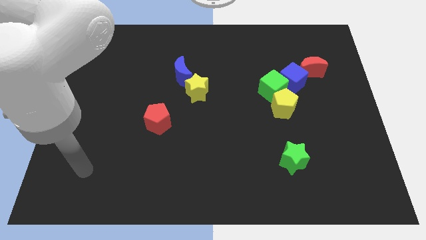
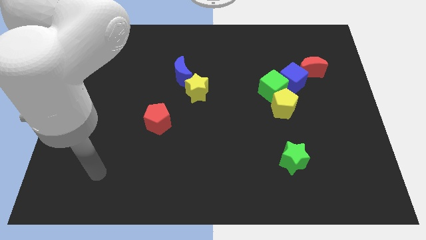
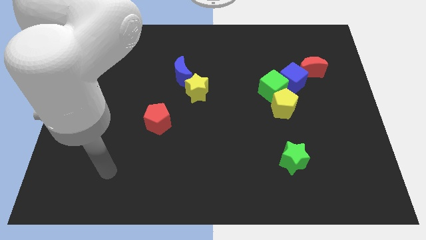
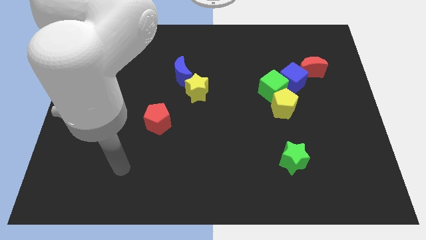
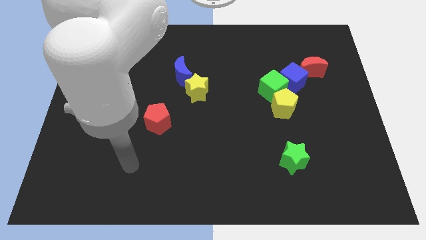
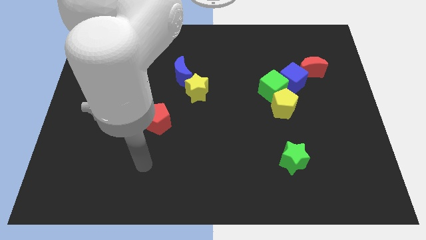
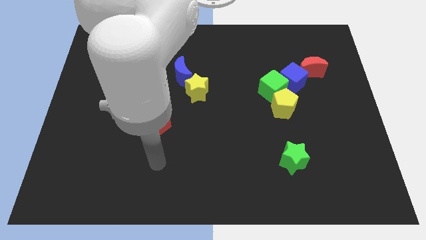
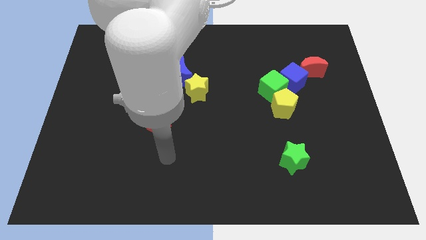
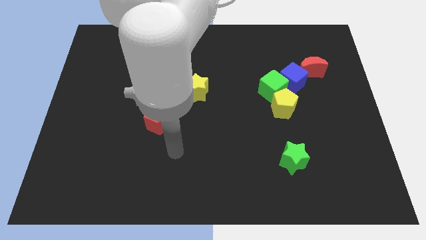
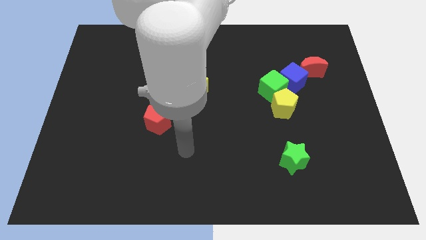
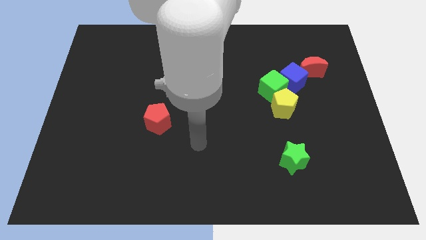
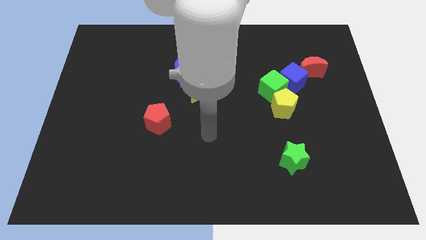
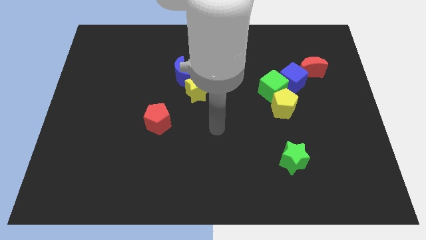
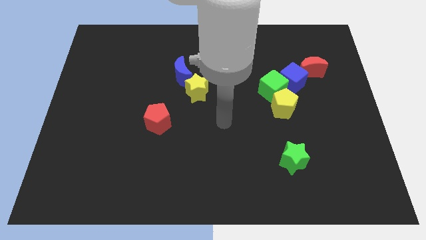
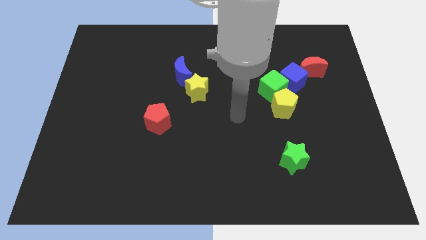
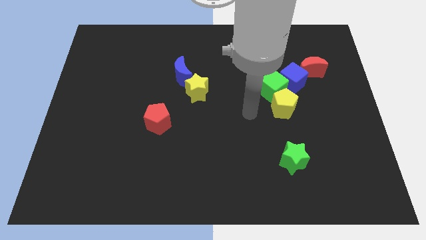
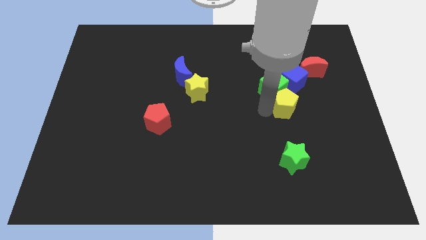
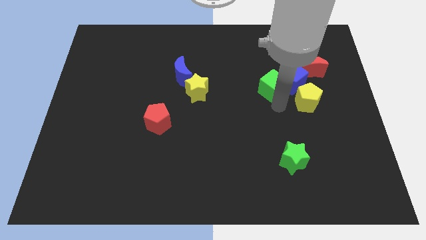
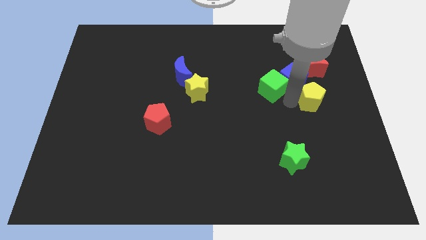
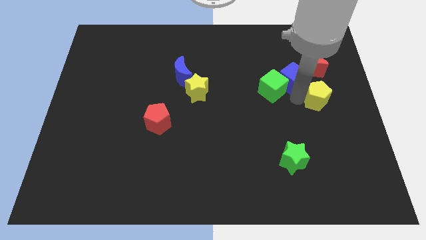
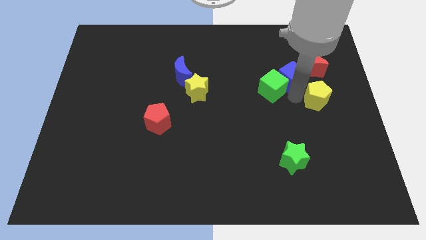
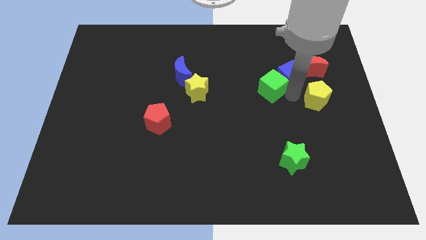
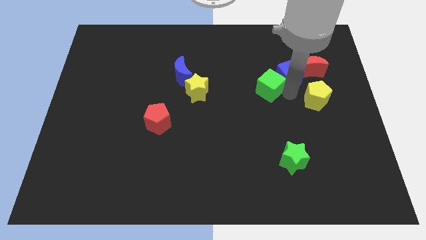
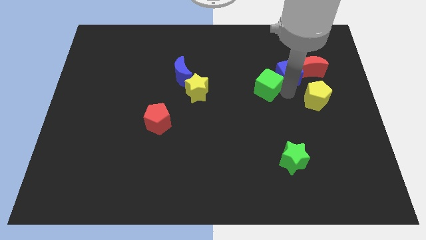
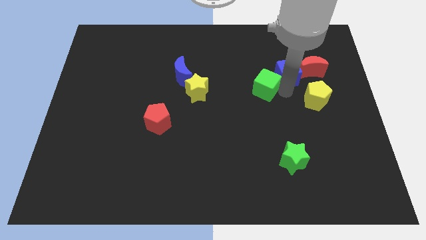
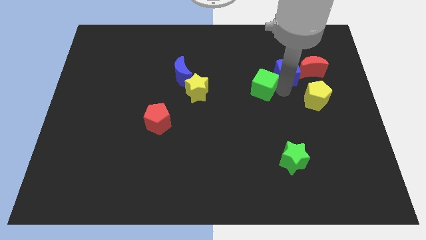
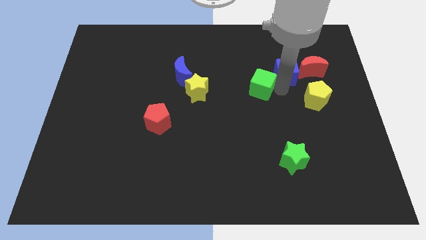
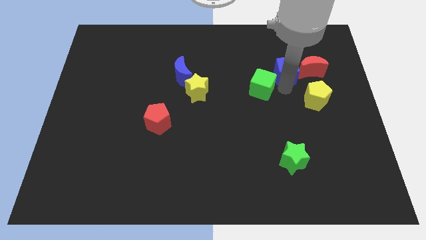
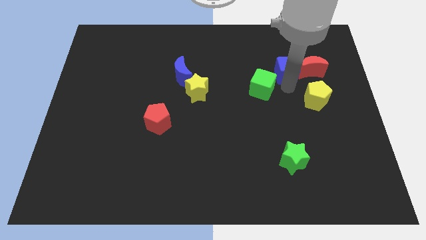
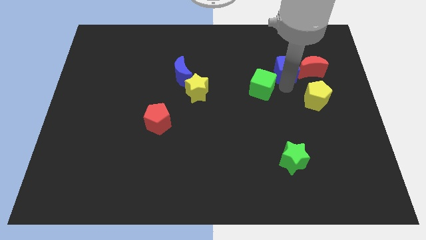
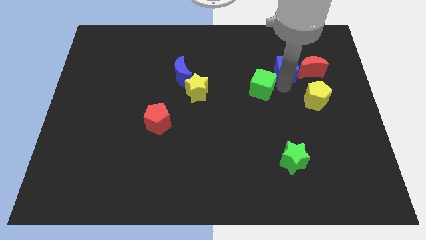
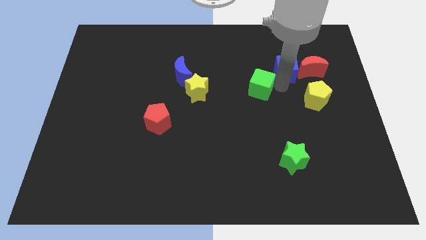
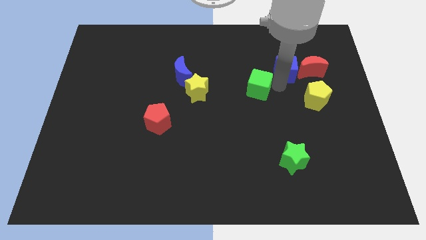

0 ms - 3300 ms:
pull the green cube apart from the yellow pentagon and blue cube

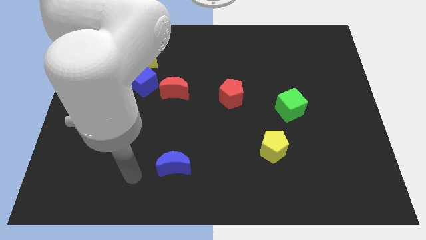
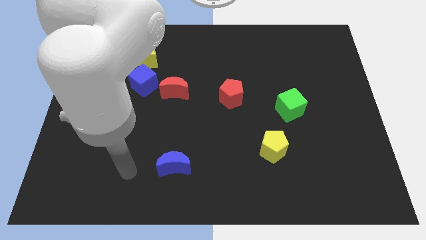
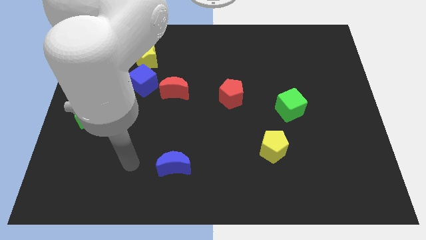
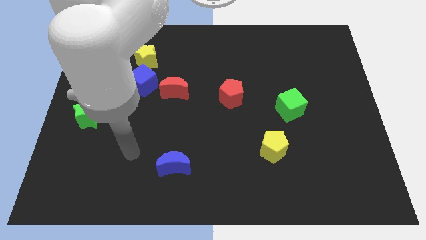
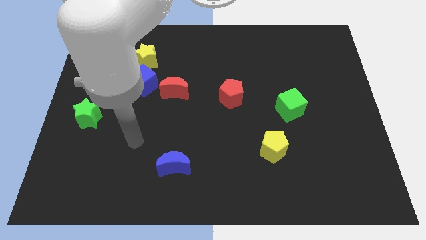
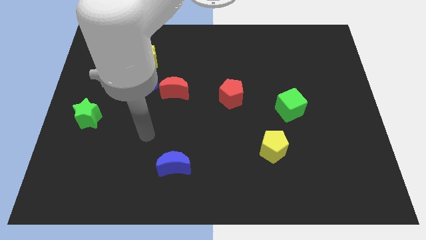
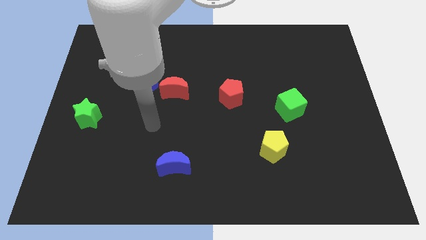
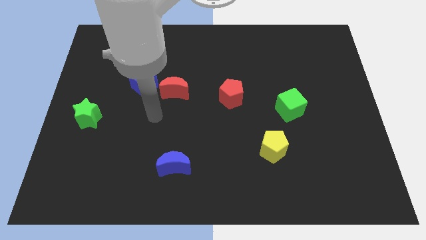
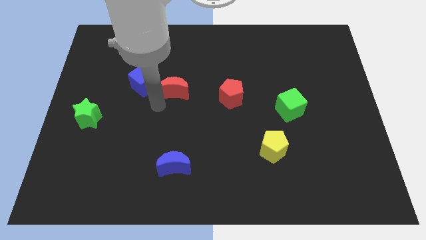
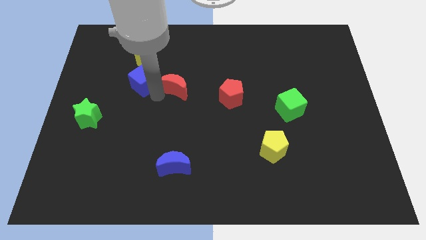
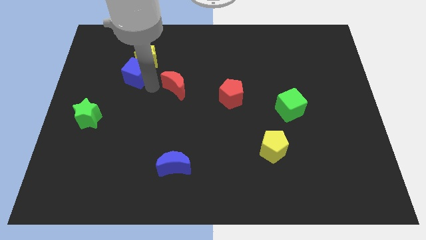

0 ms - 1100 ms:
move the red moon away from the blue cube

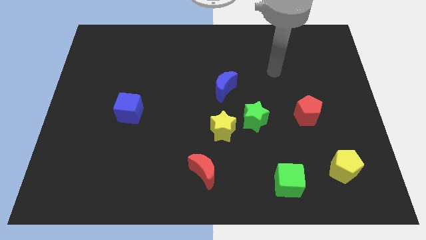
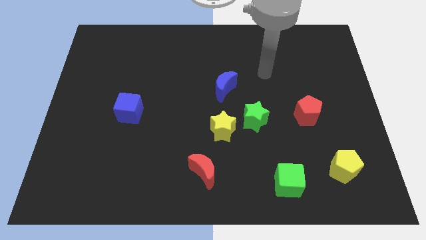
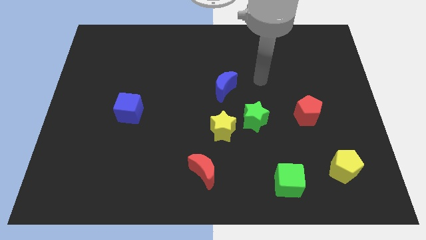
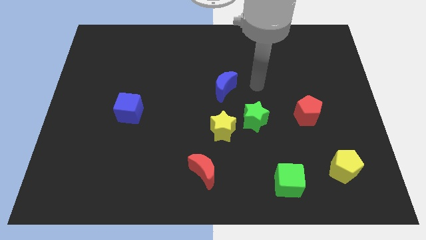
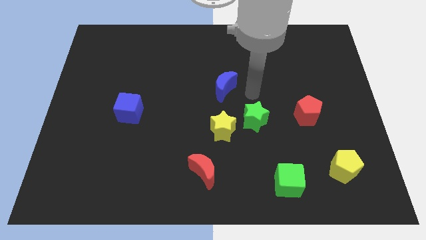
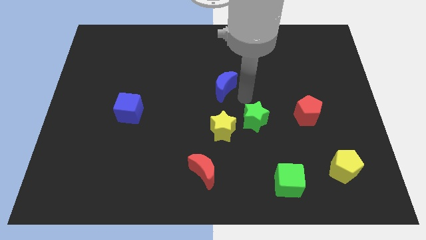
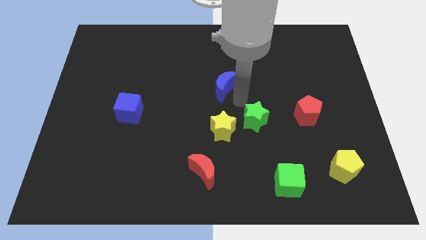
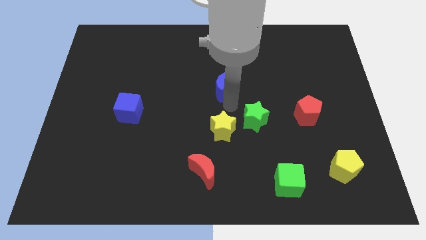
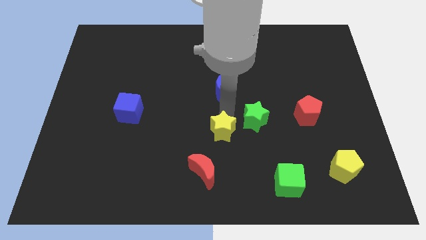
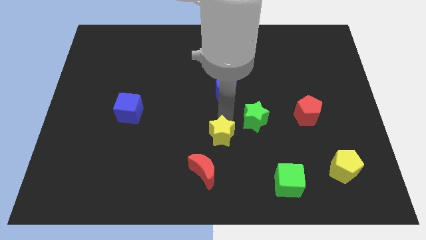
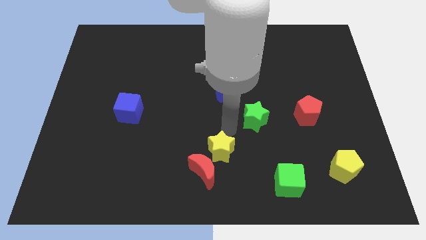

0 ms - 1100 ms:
separate the green star from the yellow star

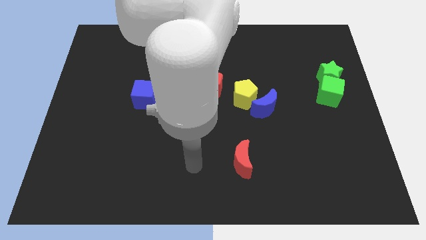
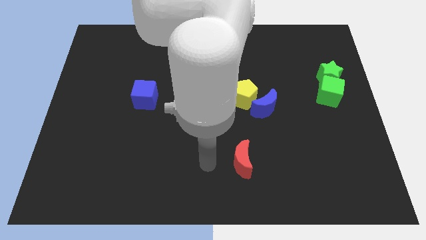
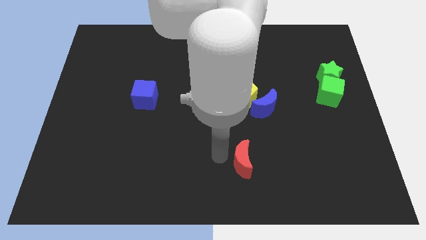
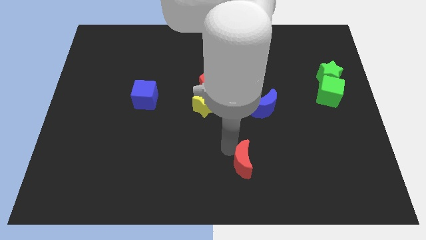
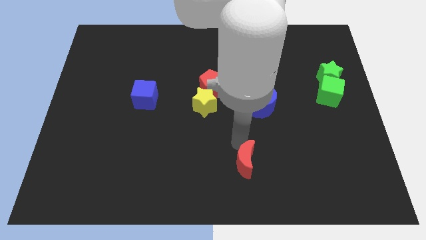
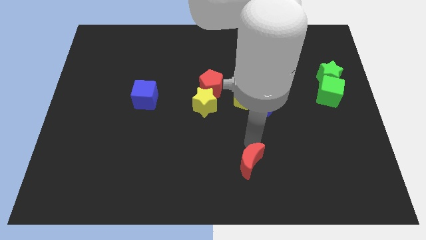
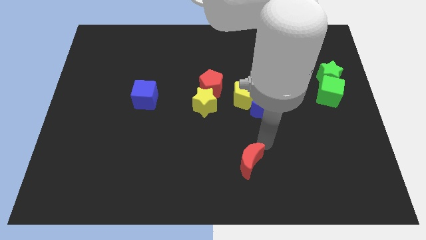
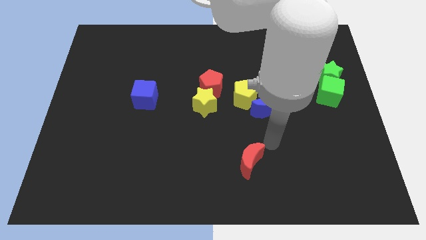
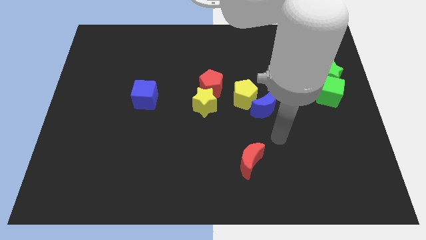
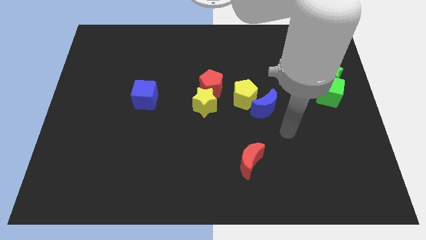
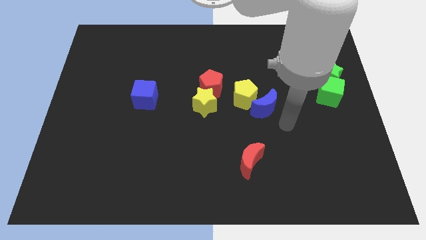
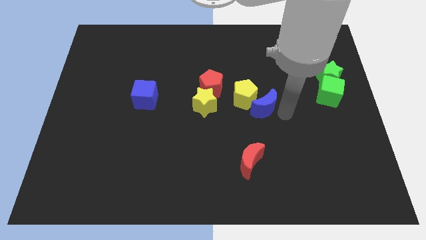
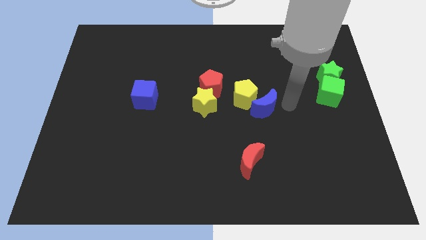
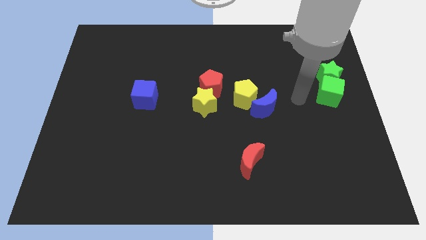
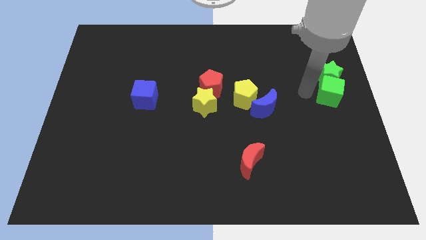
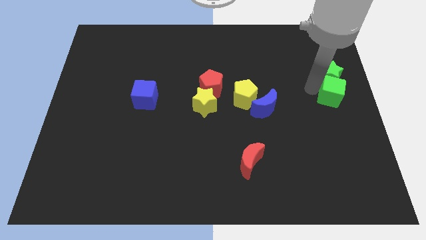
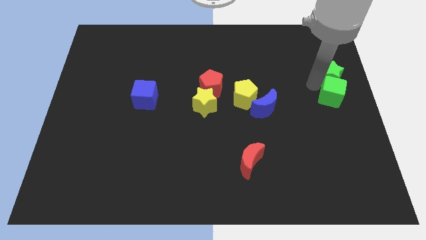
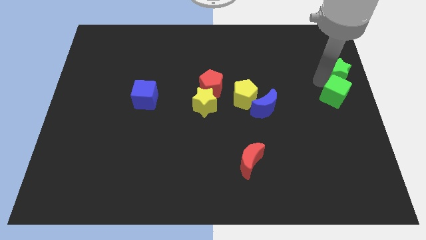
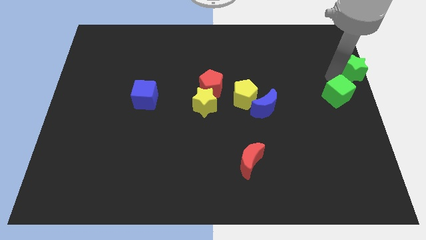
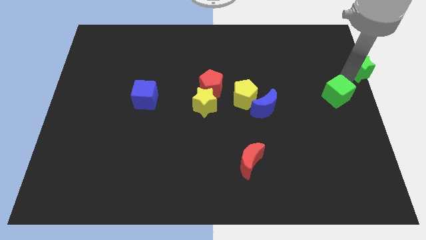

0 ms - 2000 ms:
pull the green cube apart from the green star

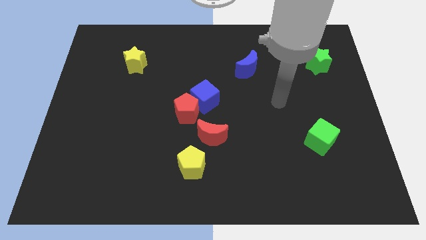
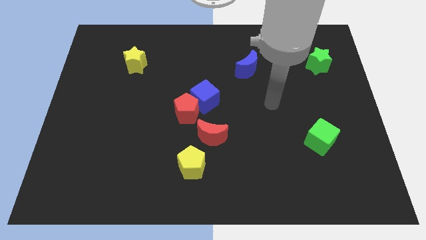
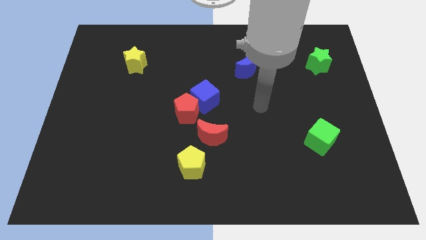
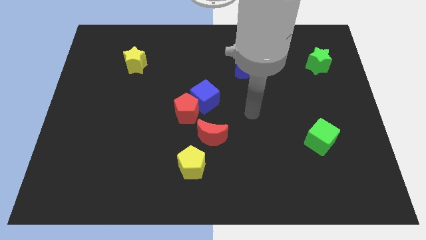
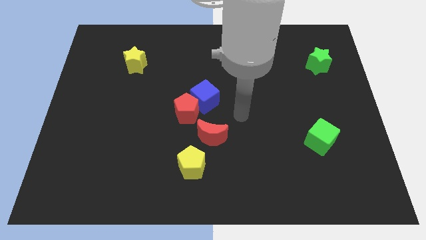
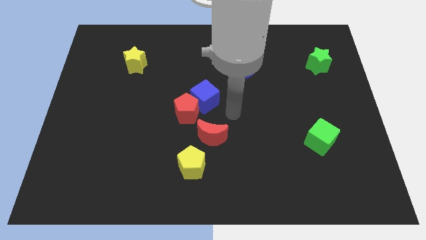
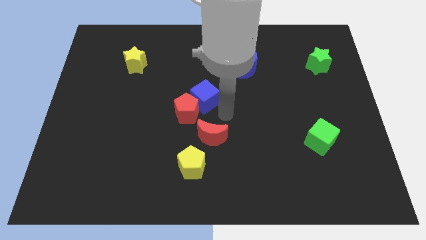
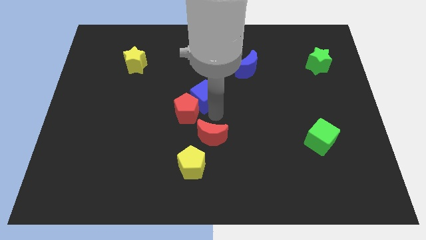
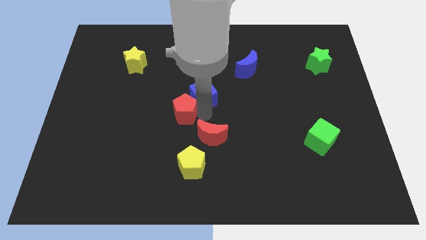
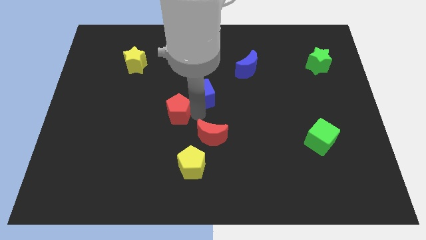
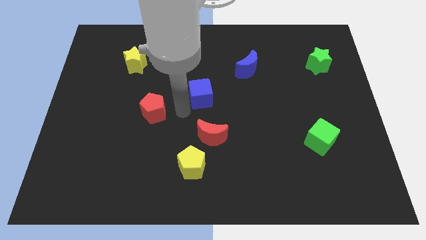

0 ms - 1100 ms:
move the blue cube away from the red pentagon

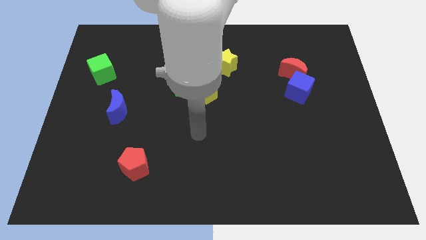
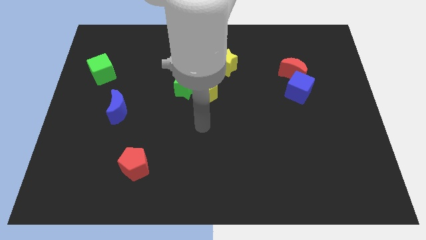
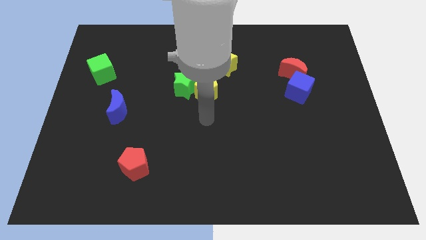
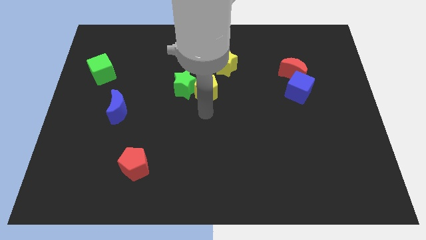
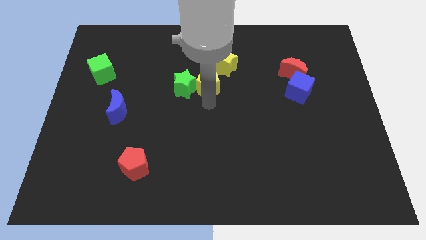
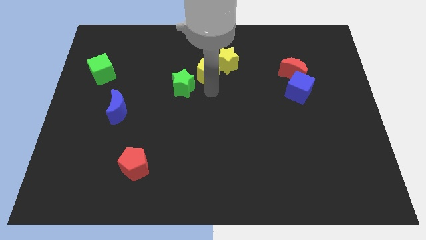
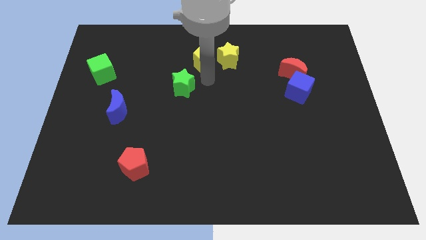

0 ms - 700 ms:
pull the green star apart from the yellow pentagon
